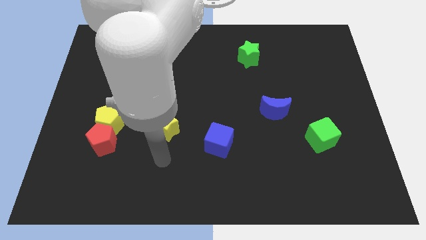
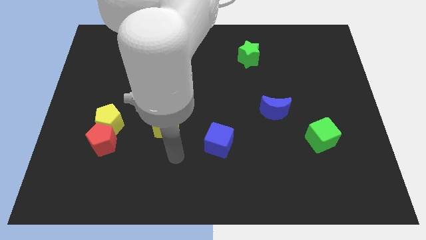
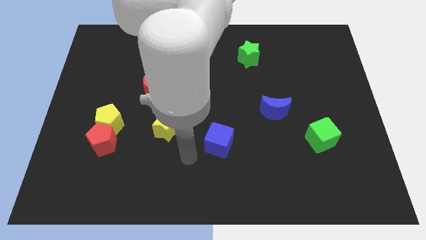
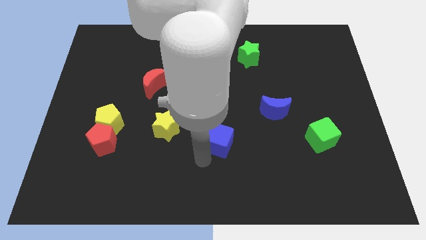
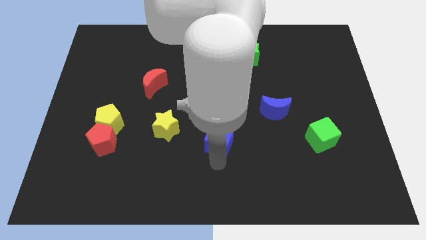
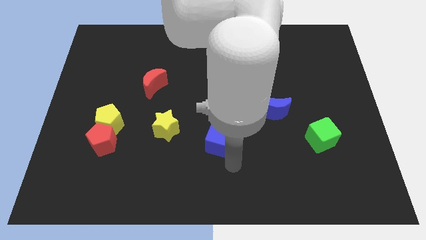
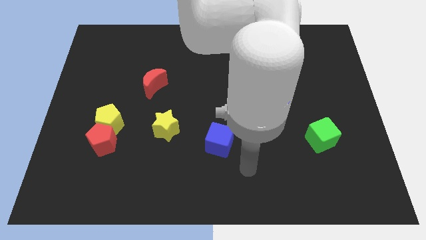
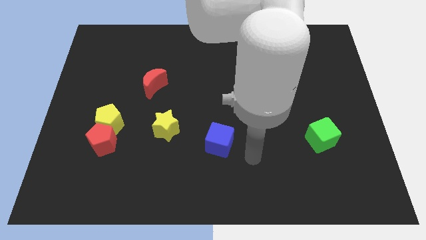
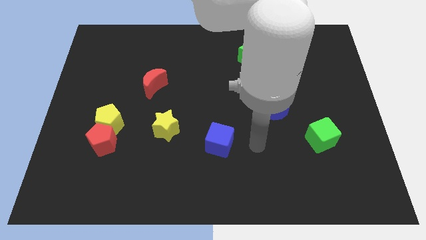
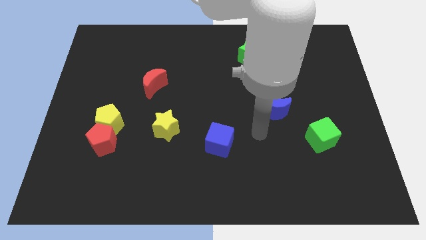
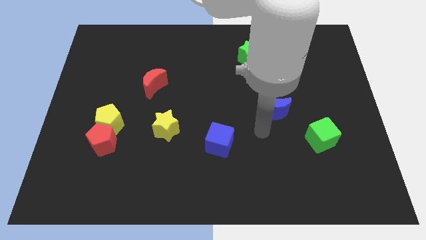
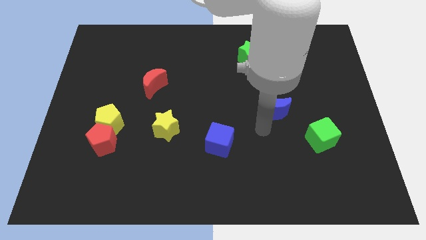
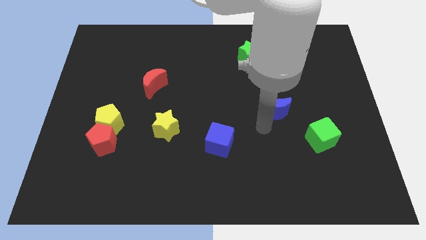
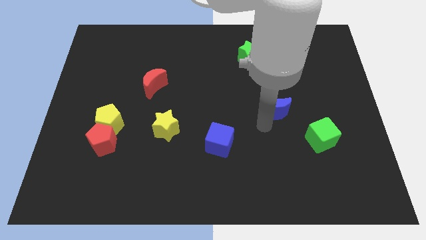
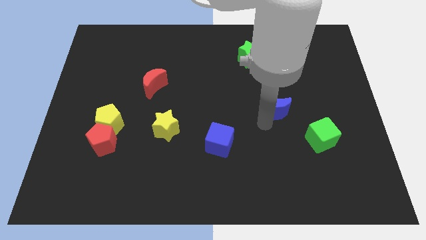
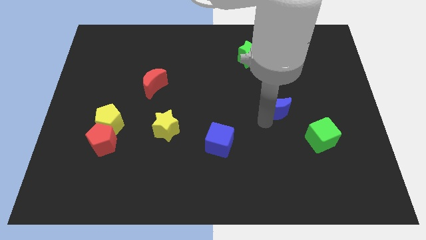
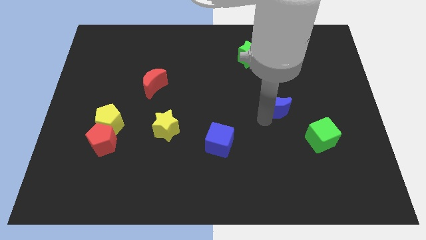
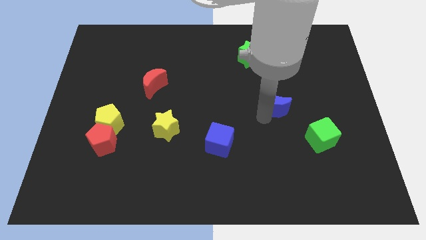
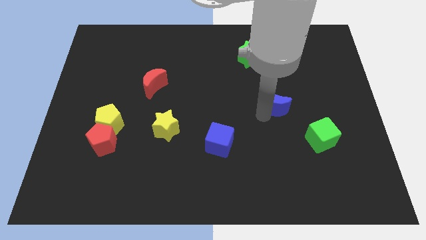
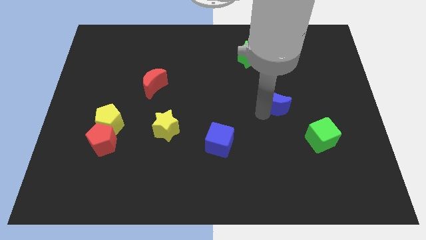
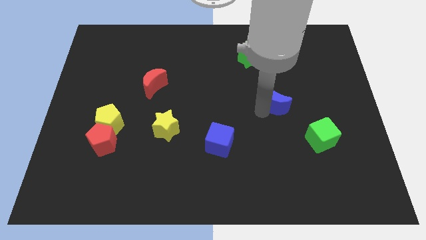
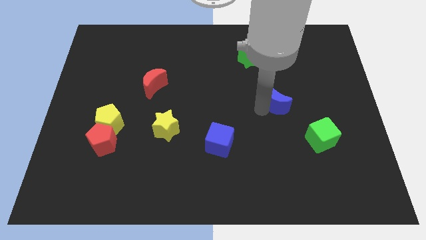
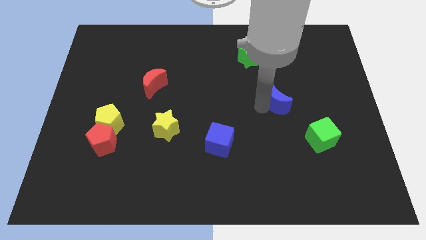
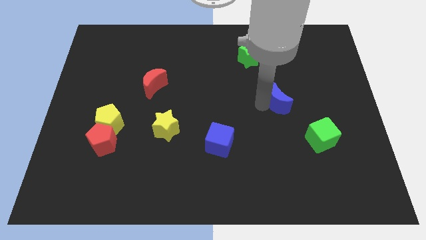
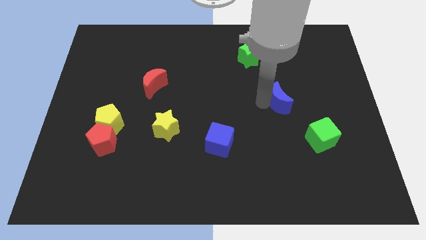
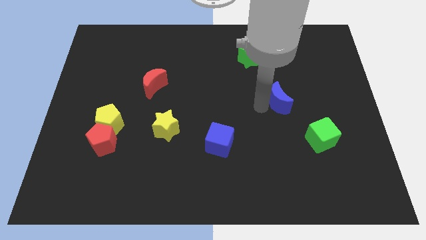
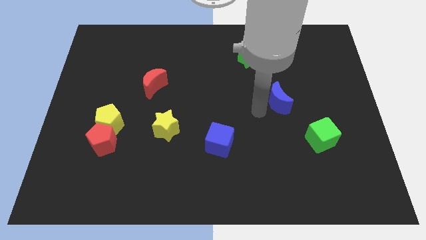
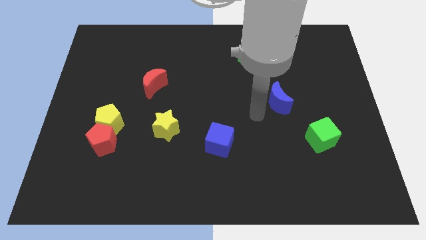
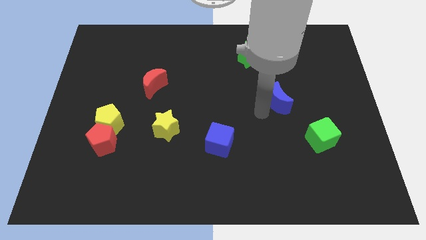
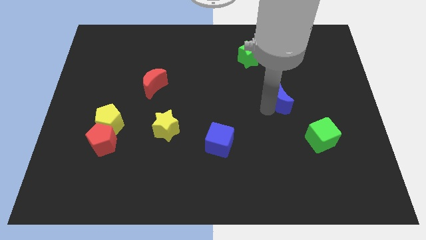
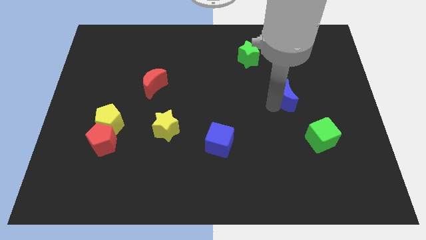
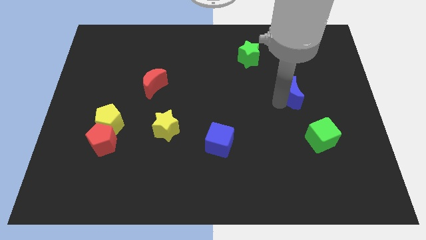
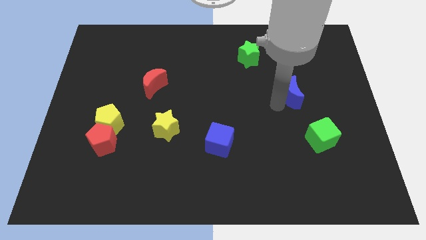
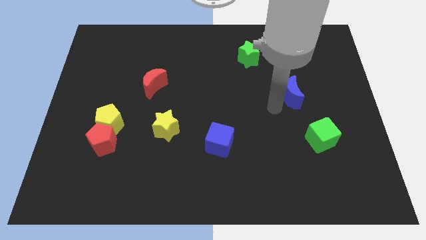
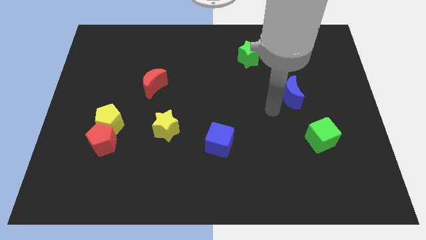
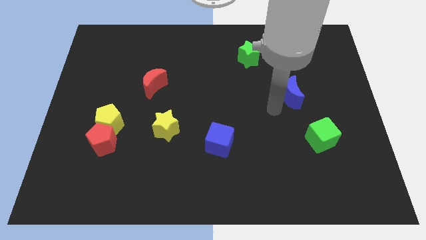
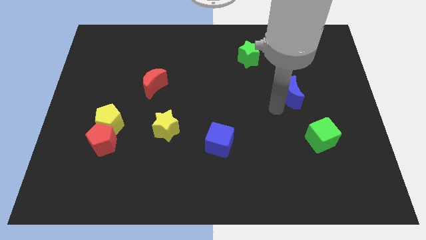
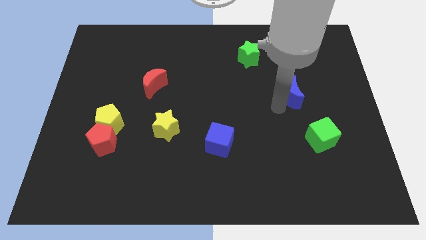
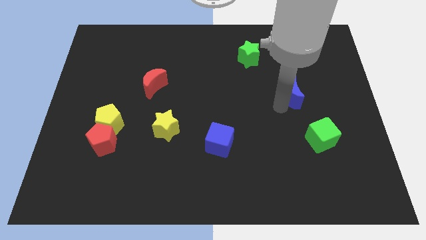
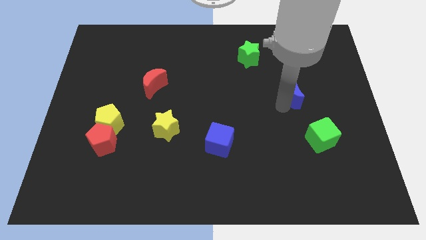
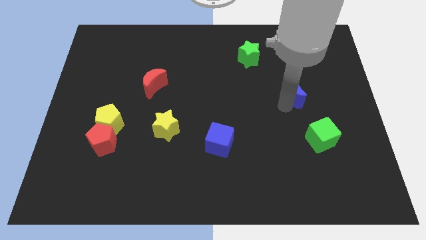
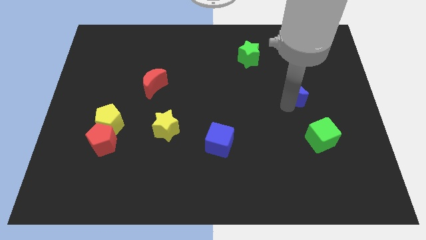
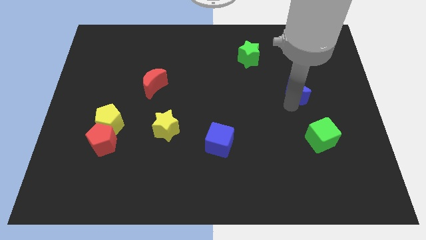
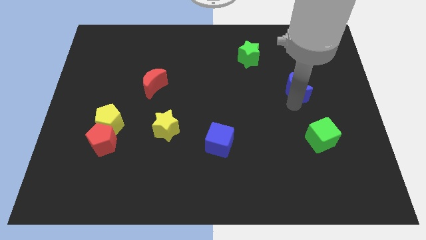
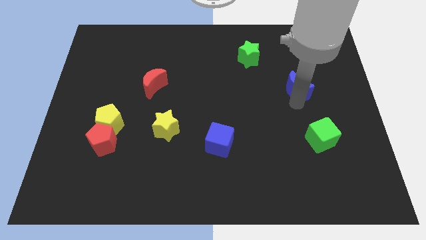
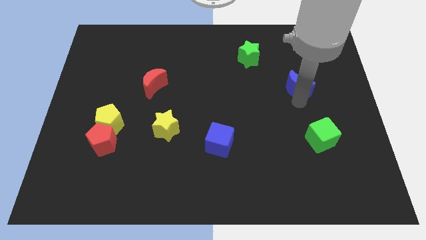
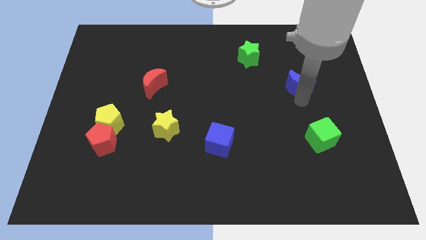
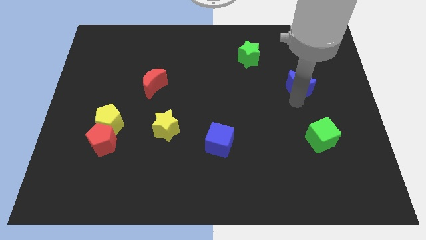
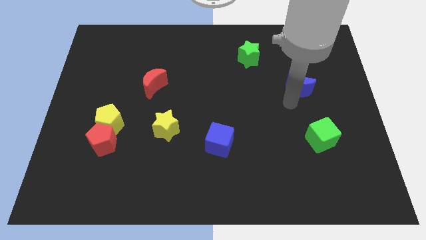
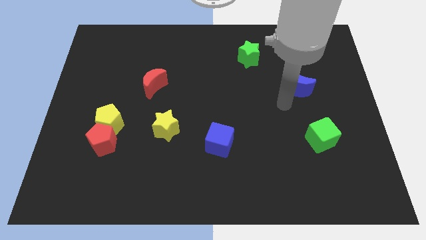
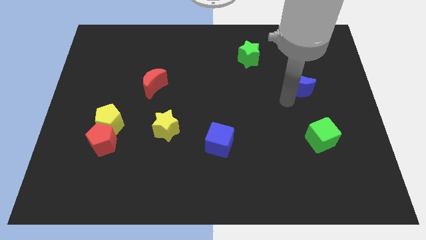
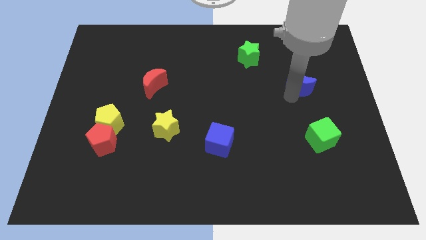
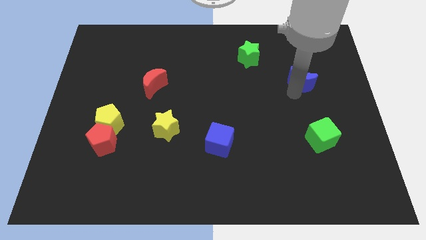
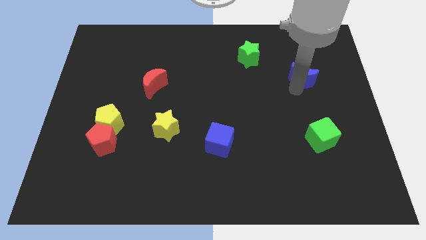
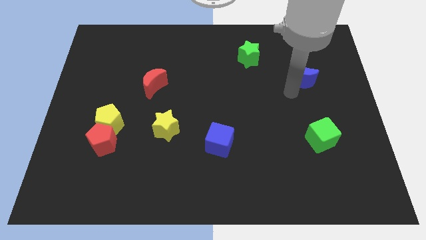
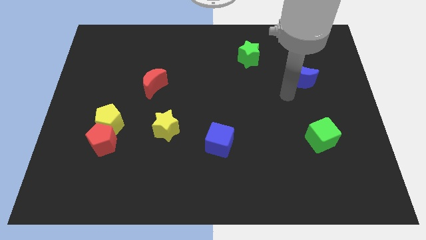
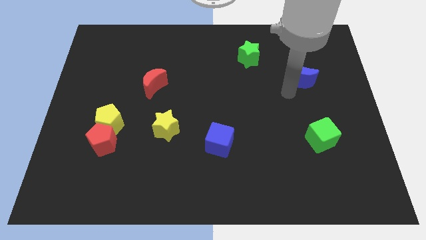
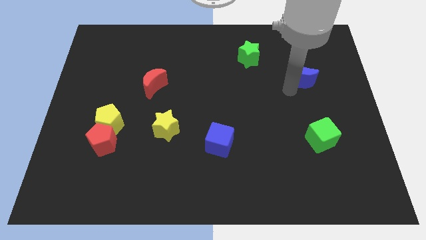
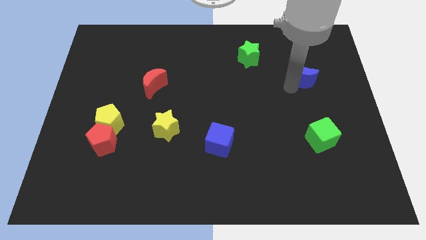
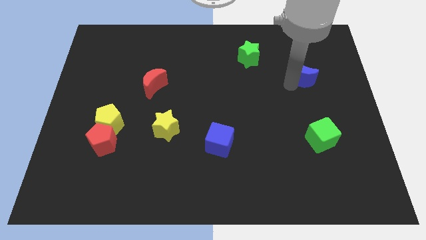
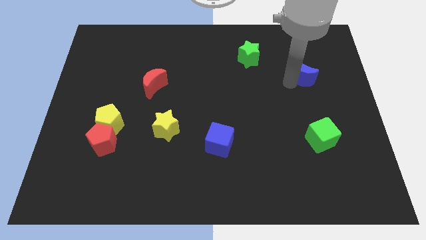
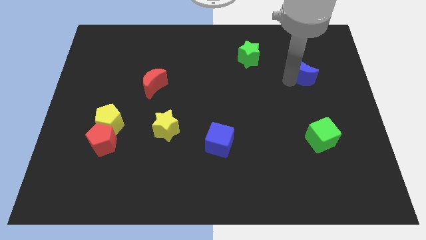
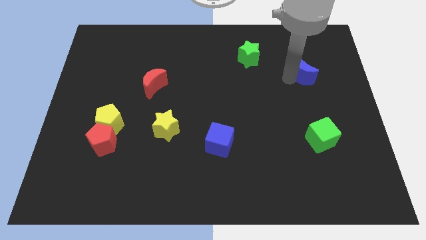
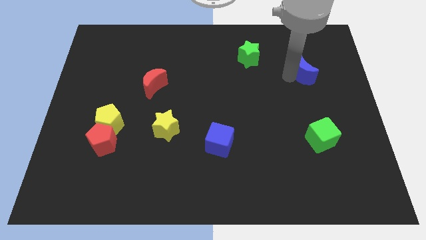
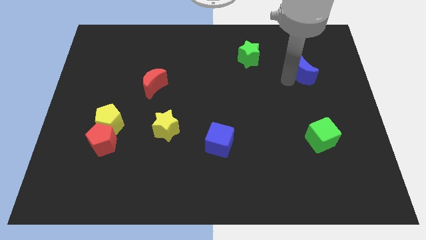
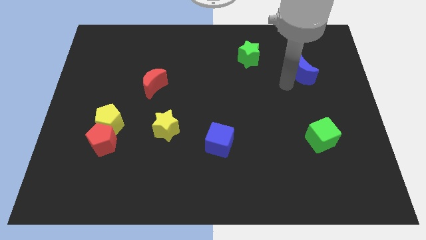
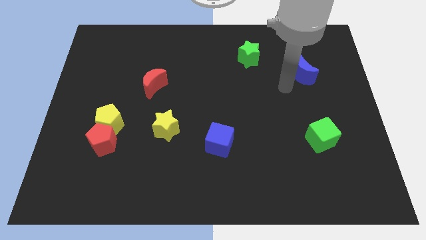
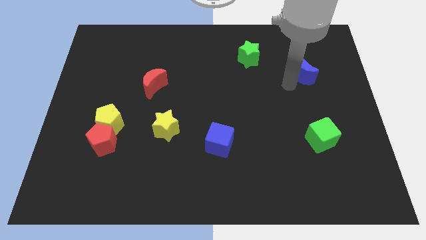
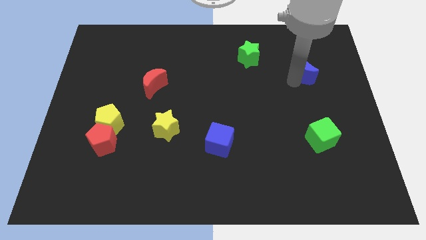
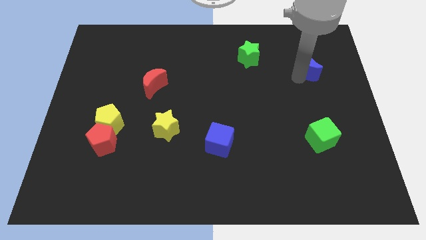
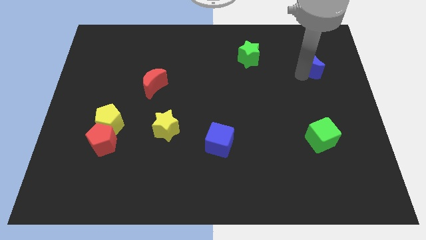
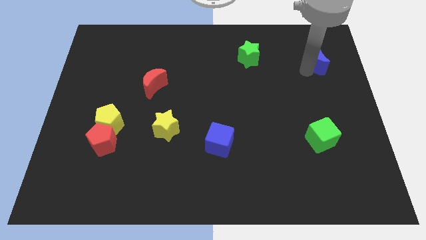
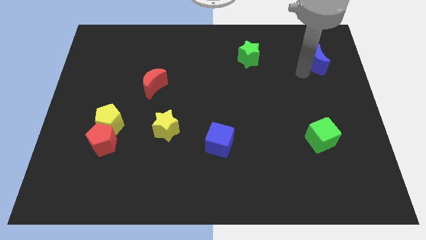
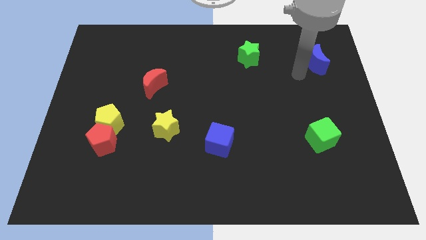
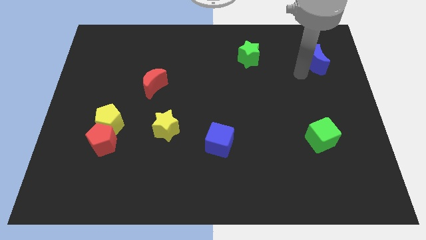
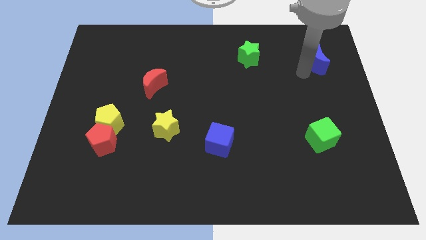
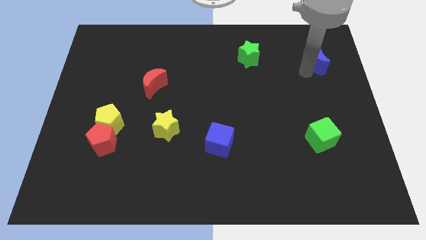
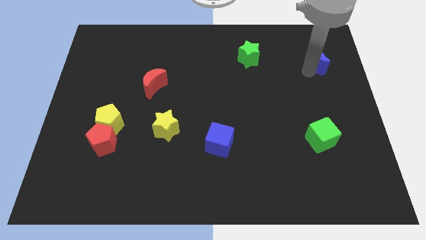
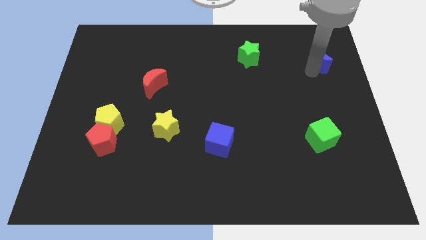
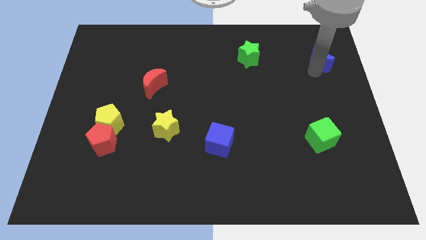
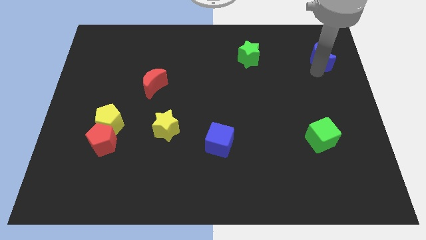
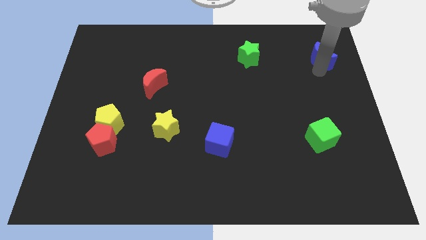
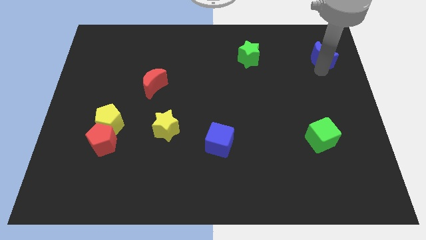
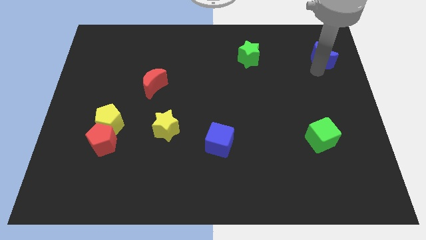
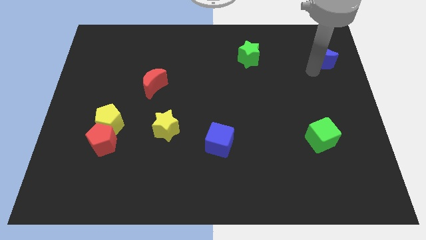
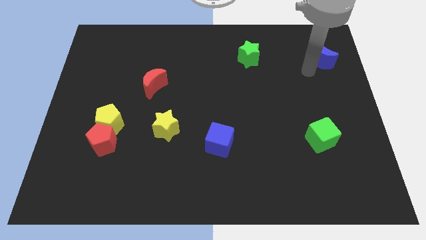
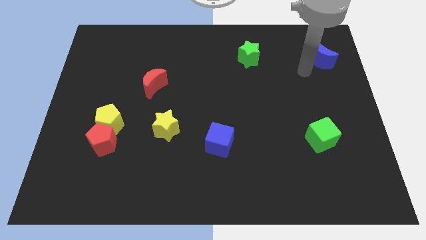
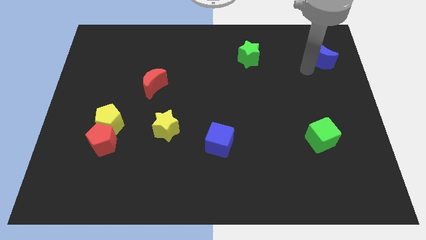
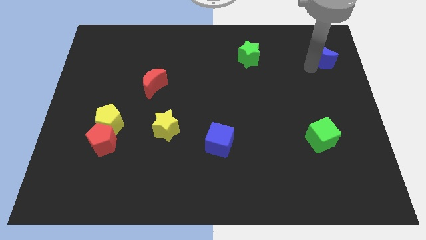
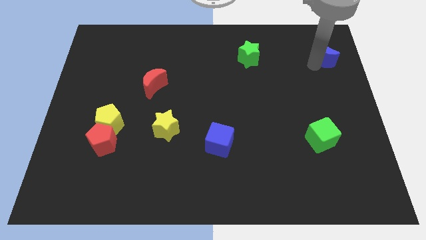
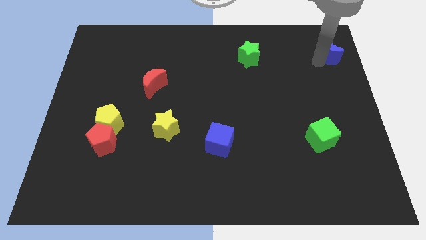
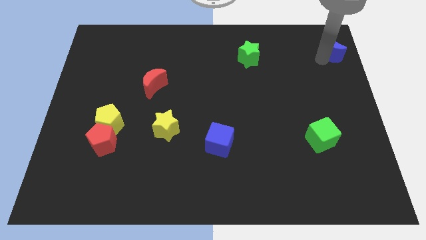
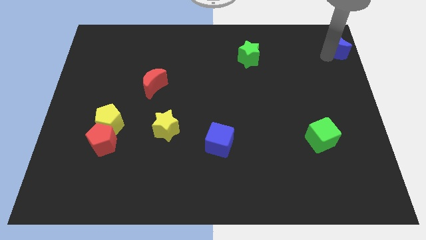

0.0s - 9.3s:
push the blue moon to the top right of the board
